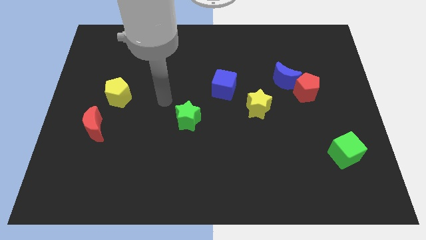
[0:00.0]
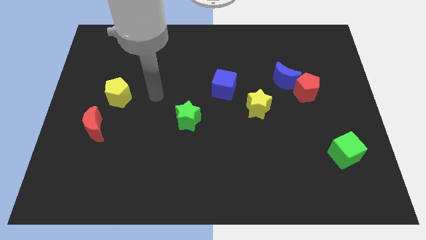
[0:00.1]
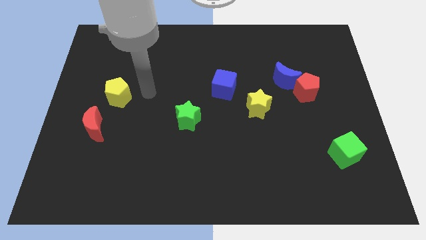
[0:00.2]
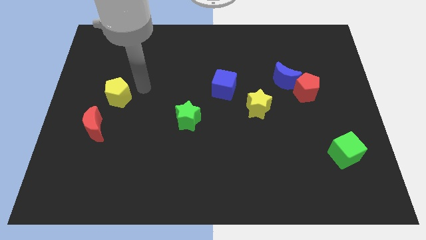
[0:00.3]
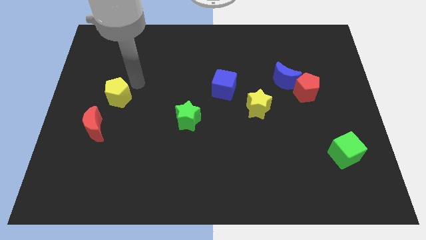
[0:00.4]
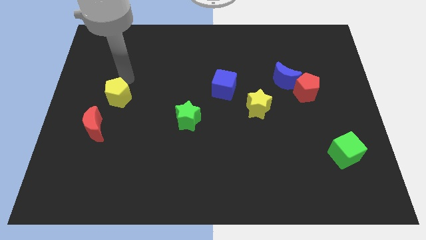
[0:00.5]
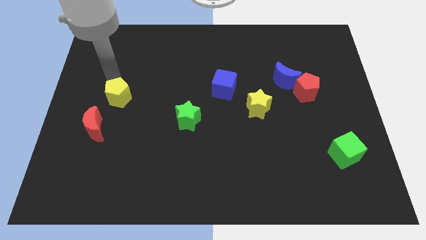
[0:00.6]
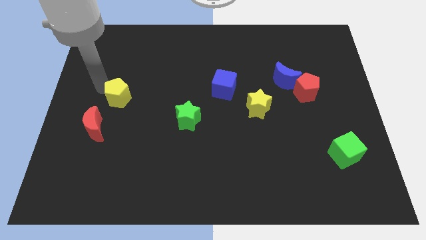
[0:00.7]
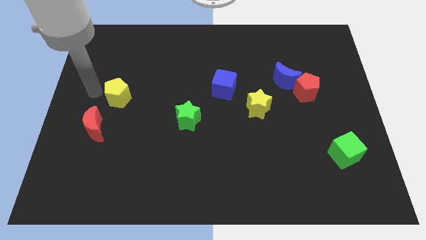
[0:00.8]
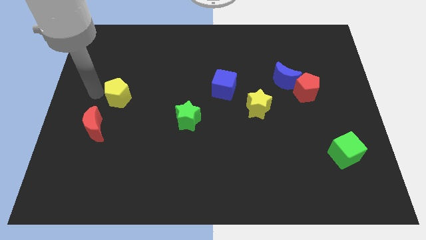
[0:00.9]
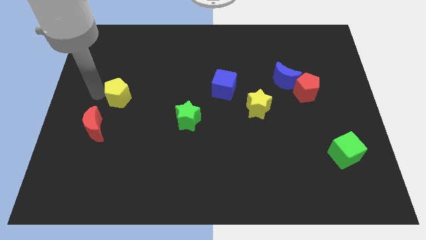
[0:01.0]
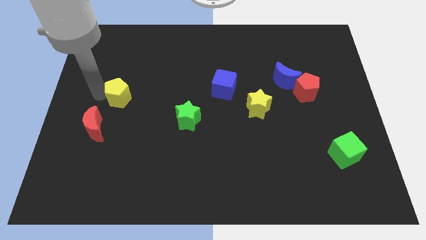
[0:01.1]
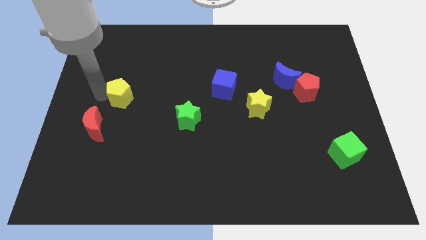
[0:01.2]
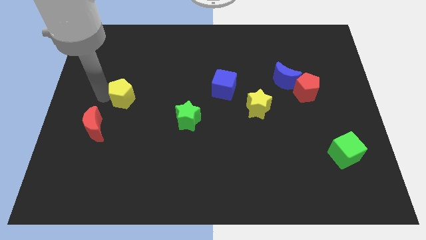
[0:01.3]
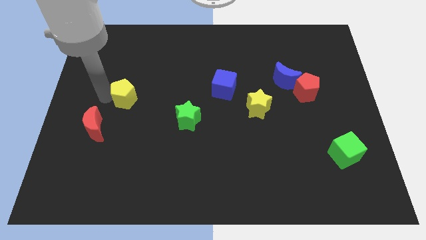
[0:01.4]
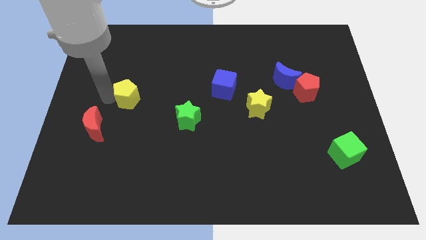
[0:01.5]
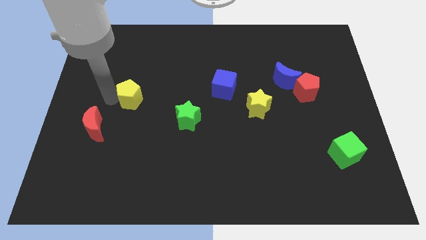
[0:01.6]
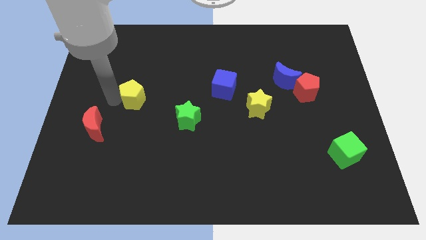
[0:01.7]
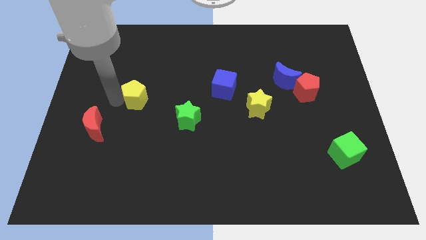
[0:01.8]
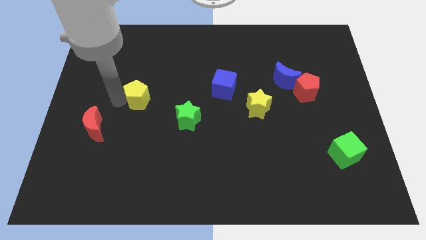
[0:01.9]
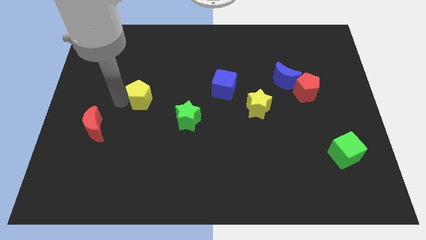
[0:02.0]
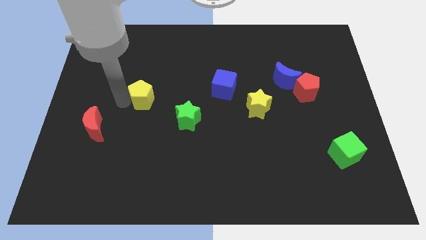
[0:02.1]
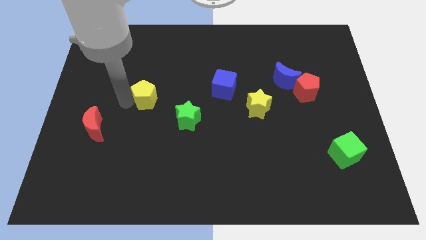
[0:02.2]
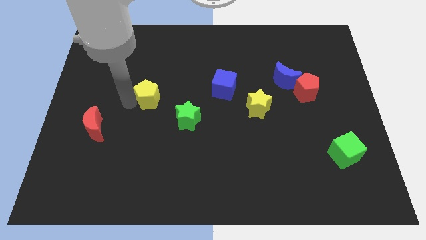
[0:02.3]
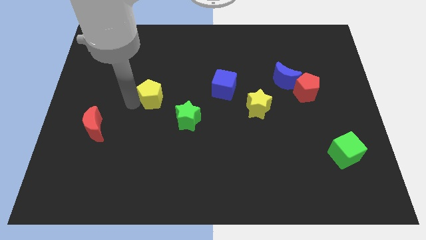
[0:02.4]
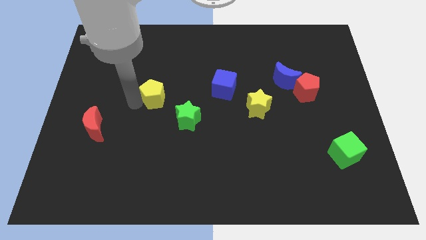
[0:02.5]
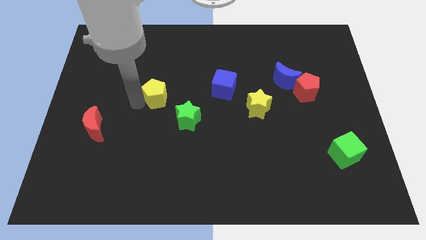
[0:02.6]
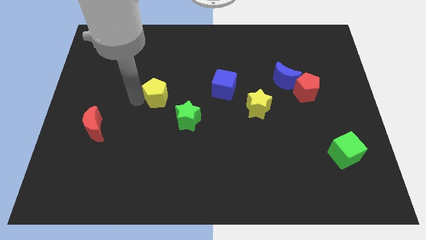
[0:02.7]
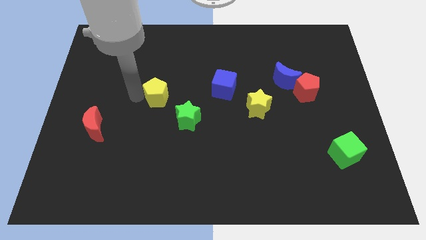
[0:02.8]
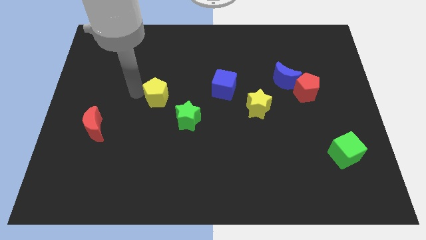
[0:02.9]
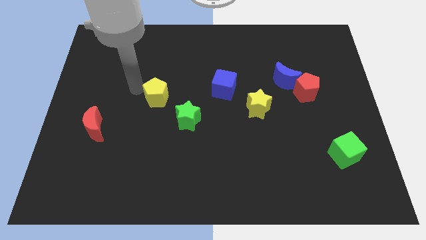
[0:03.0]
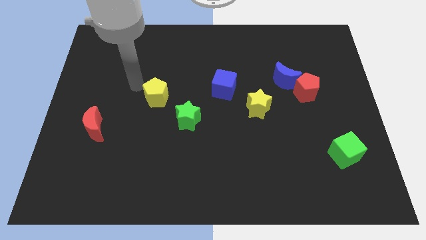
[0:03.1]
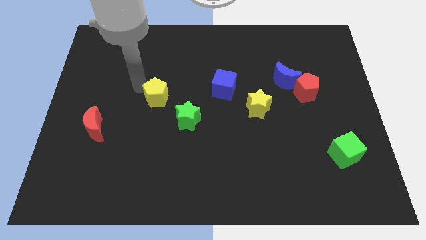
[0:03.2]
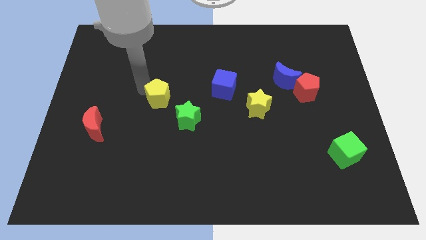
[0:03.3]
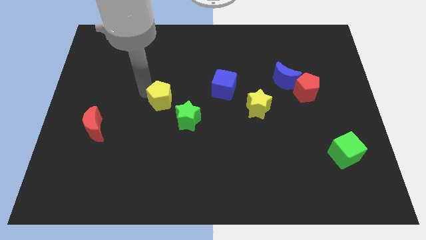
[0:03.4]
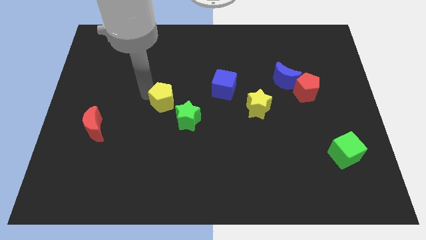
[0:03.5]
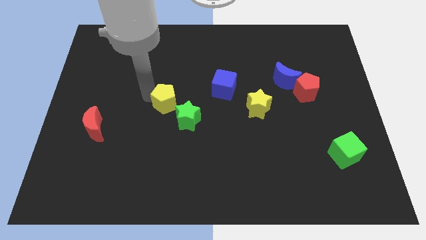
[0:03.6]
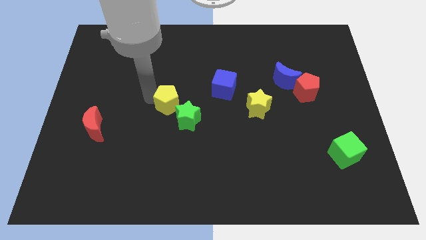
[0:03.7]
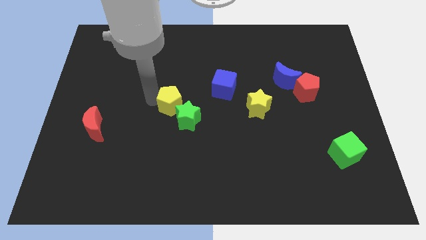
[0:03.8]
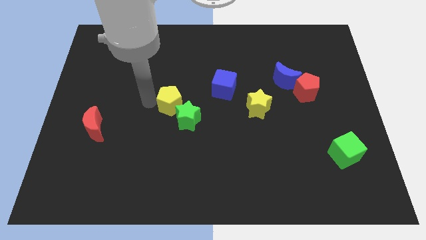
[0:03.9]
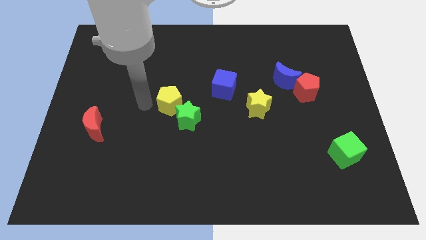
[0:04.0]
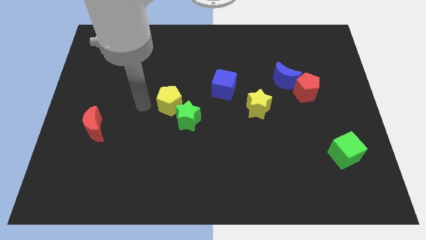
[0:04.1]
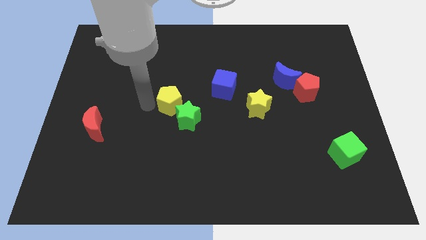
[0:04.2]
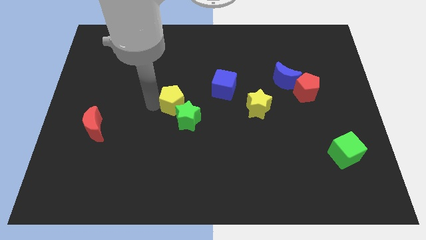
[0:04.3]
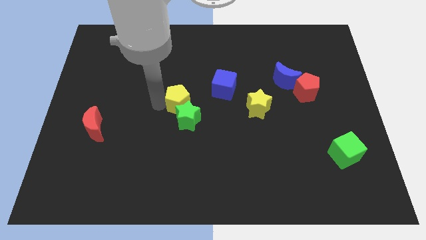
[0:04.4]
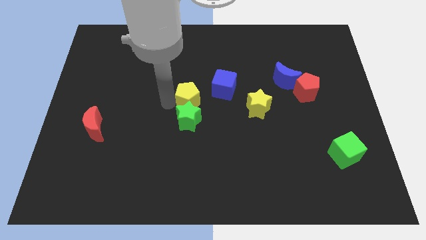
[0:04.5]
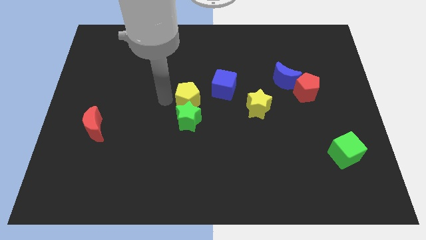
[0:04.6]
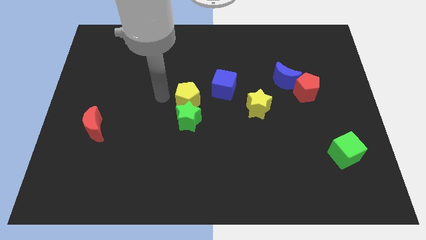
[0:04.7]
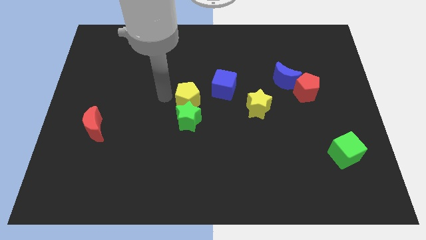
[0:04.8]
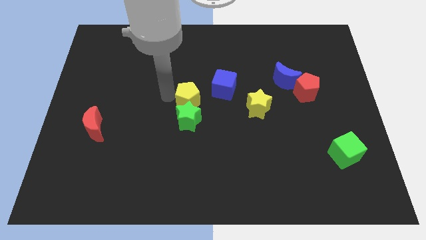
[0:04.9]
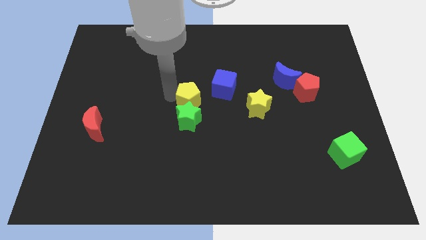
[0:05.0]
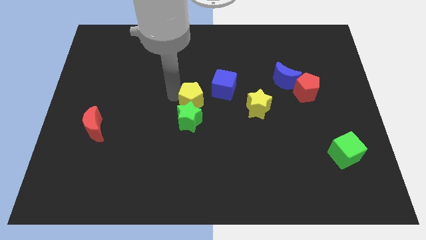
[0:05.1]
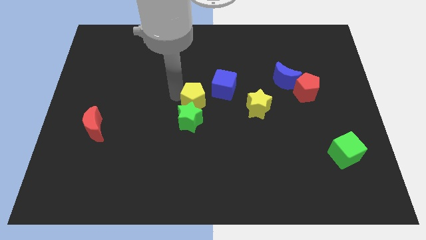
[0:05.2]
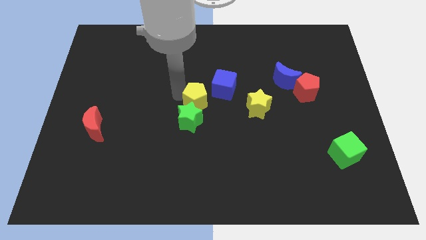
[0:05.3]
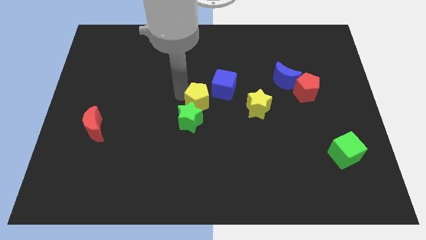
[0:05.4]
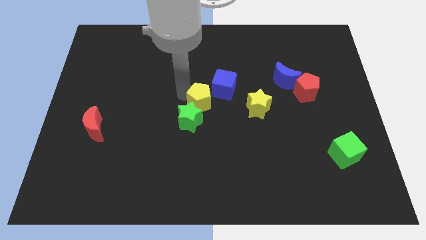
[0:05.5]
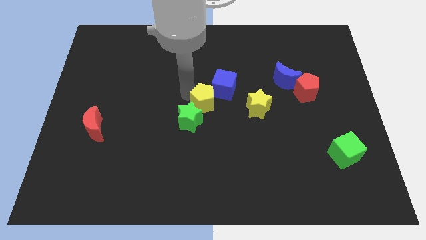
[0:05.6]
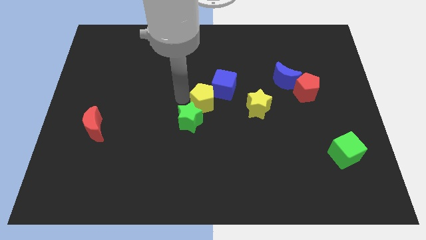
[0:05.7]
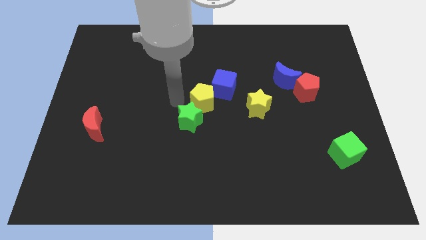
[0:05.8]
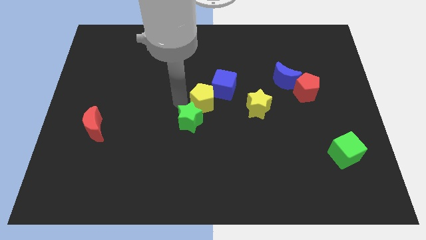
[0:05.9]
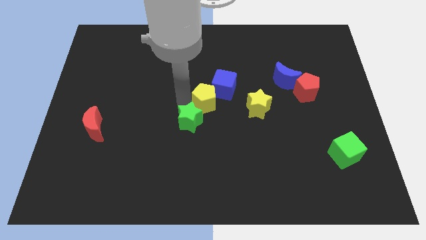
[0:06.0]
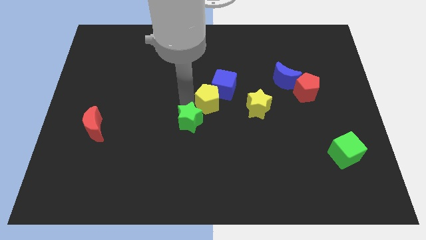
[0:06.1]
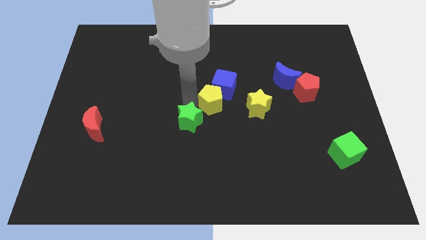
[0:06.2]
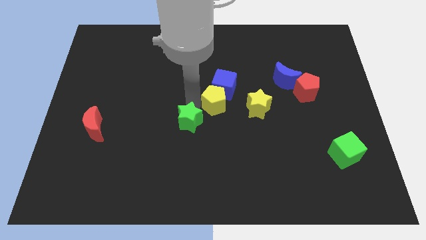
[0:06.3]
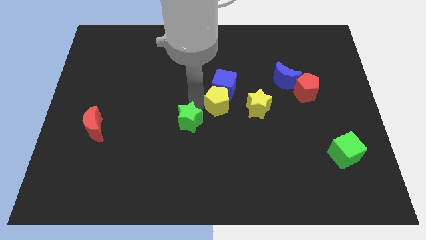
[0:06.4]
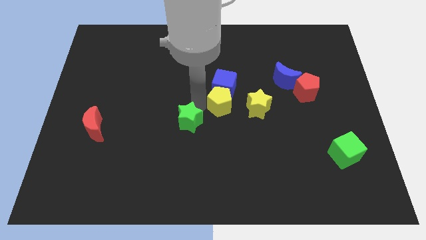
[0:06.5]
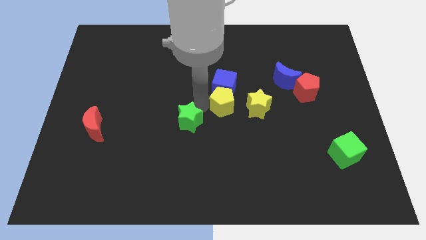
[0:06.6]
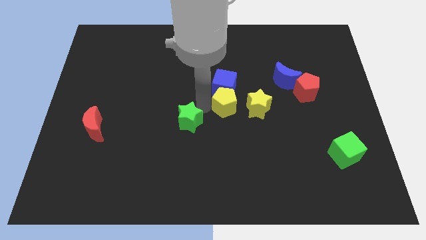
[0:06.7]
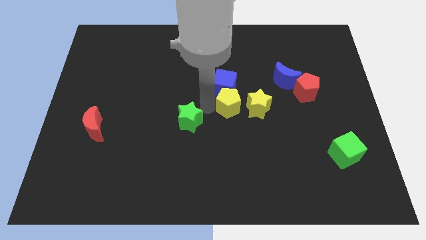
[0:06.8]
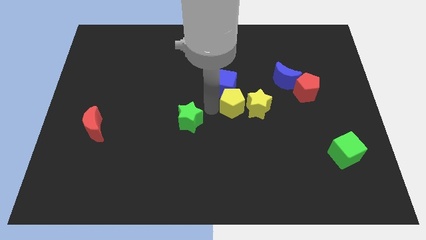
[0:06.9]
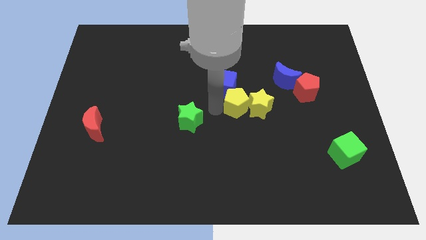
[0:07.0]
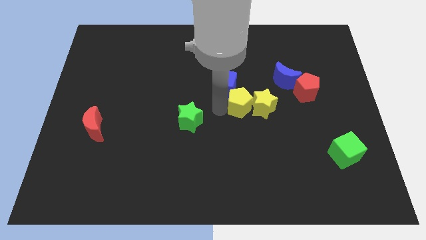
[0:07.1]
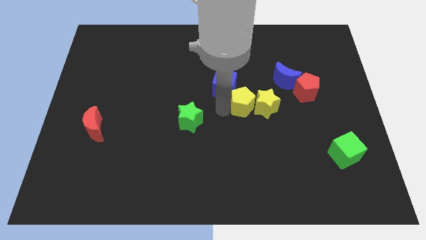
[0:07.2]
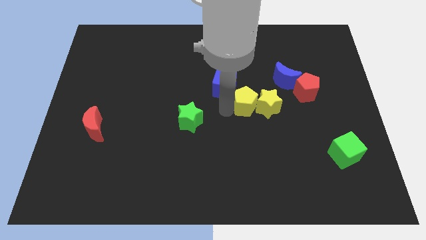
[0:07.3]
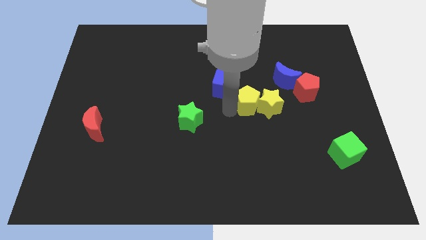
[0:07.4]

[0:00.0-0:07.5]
move the yellow pentagon to the bottom left of the blue moon

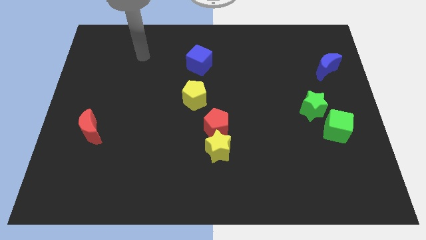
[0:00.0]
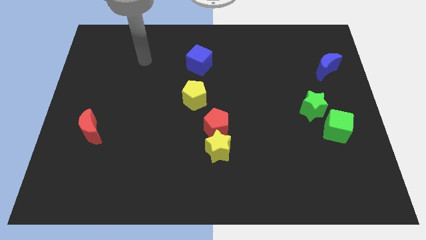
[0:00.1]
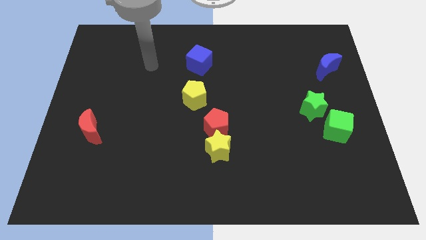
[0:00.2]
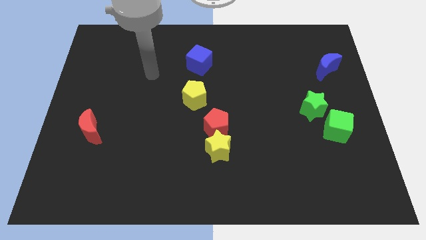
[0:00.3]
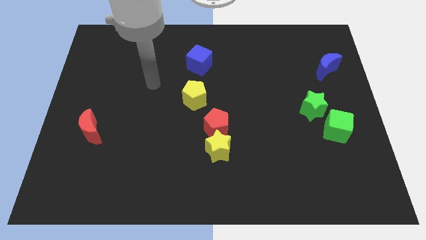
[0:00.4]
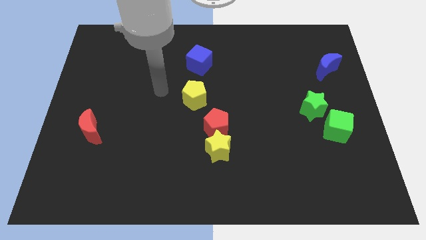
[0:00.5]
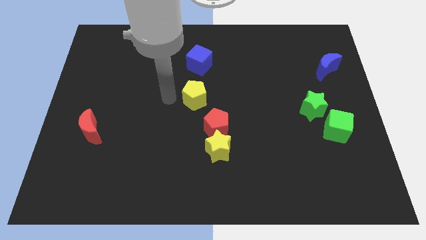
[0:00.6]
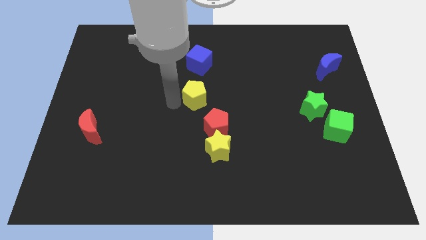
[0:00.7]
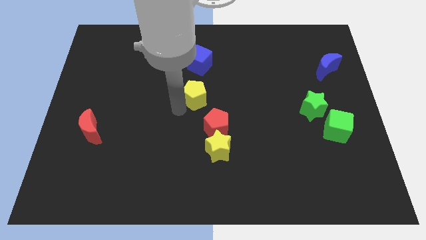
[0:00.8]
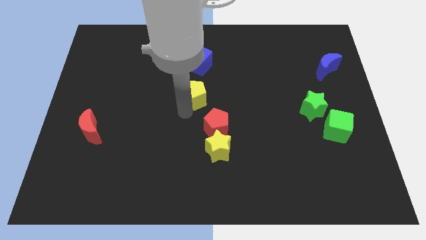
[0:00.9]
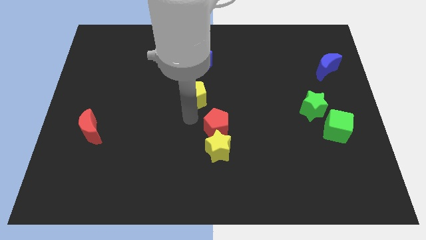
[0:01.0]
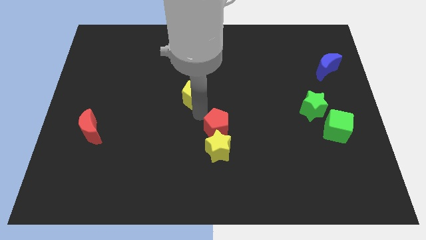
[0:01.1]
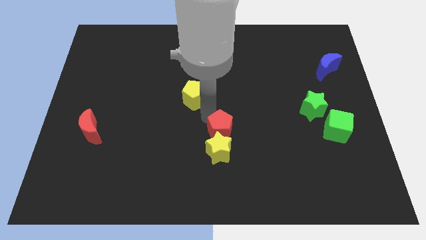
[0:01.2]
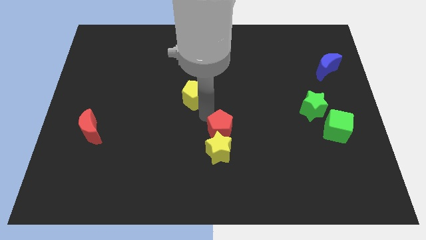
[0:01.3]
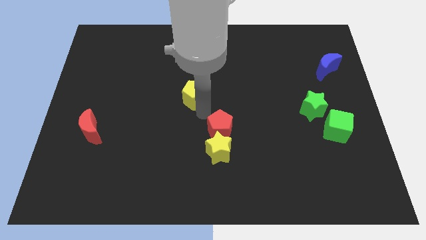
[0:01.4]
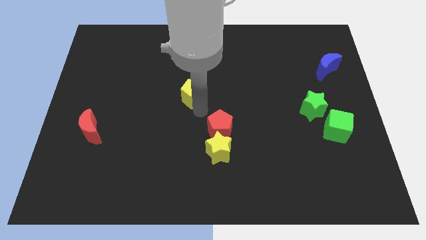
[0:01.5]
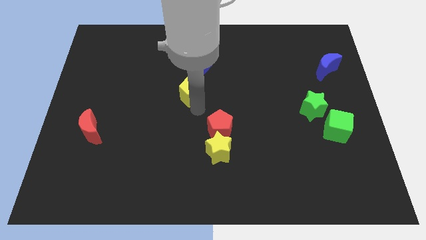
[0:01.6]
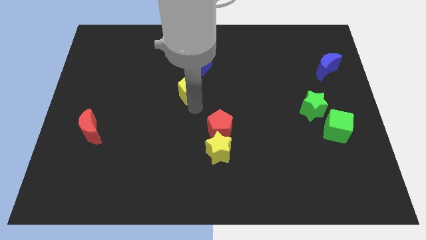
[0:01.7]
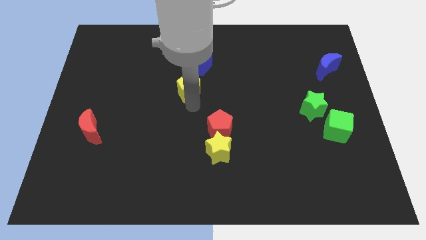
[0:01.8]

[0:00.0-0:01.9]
put the yellow pentagon to the bottom left of the blue cube
